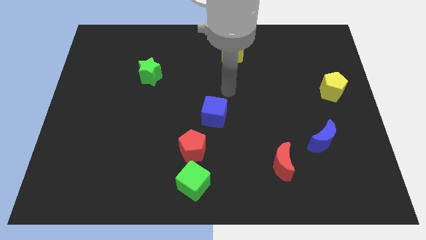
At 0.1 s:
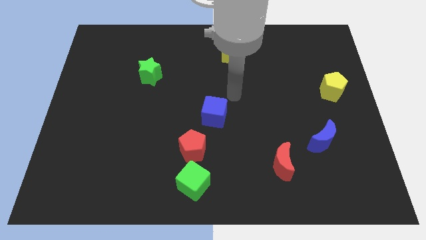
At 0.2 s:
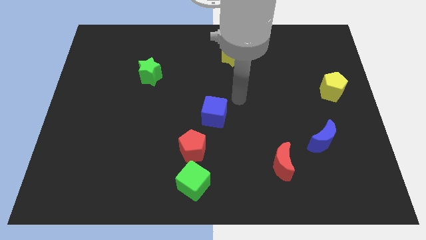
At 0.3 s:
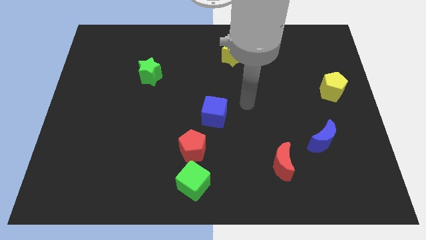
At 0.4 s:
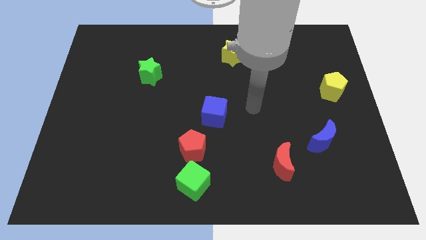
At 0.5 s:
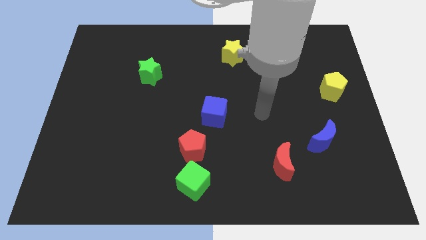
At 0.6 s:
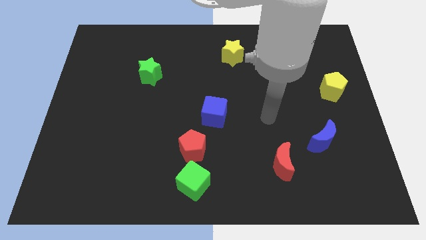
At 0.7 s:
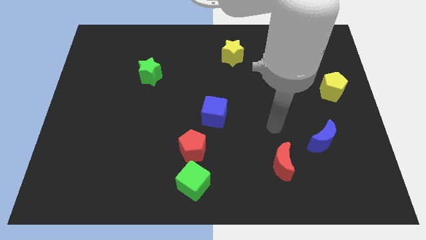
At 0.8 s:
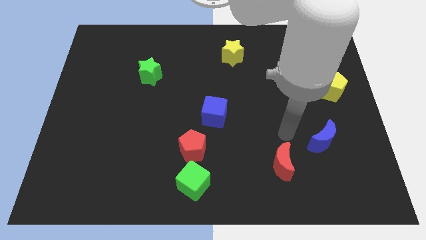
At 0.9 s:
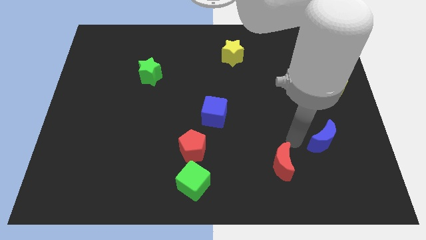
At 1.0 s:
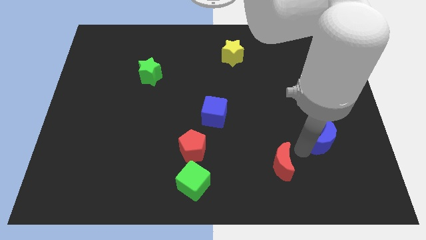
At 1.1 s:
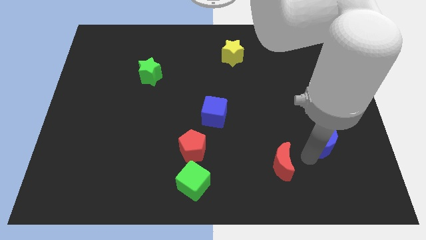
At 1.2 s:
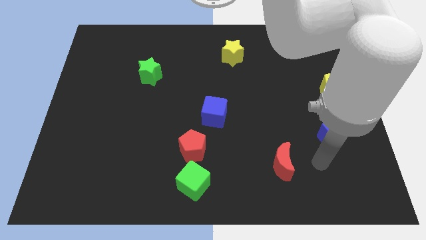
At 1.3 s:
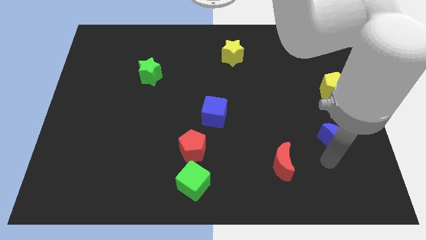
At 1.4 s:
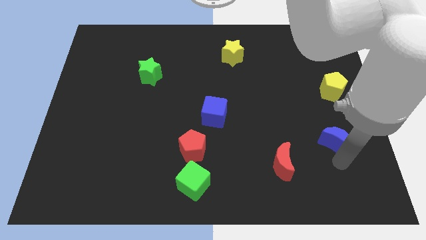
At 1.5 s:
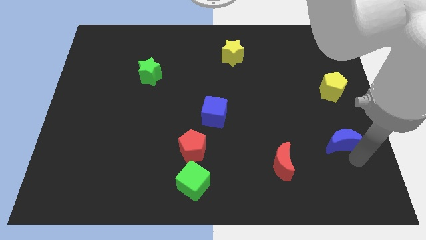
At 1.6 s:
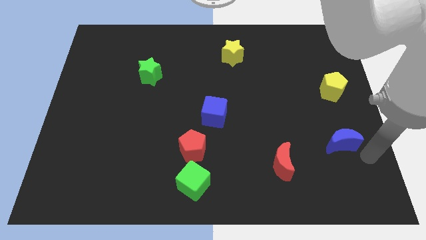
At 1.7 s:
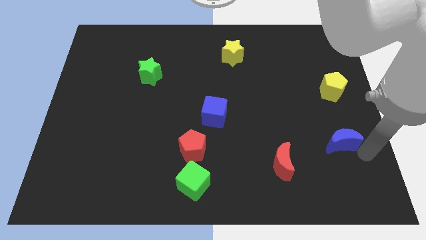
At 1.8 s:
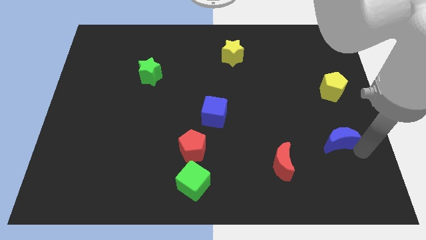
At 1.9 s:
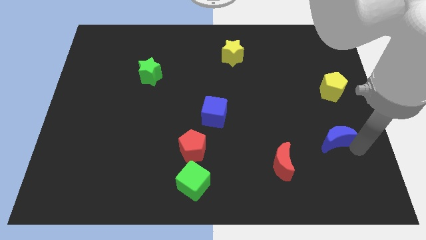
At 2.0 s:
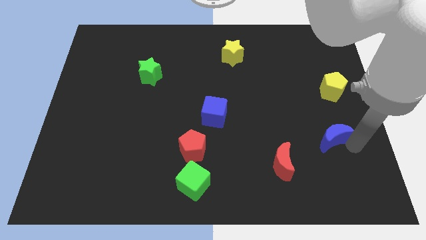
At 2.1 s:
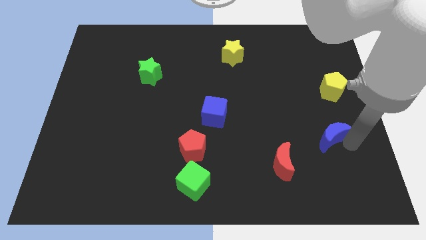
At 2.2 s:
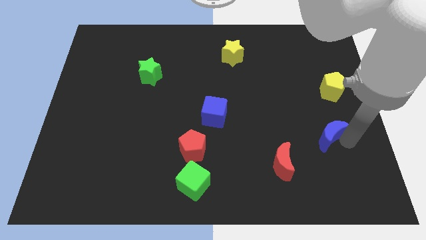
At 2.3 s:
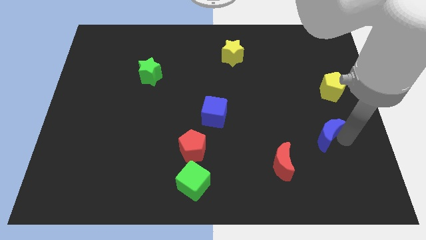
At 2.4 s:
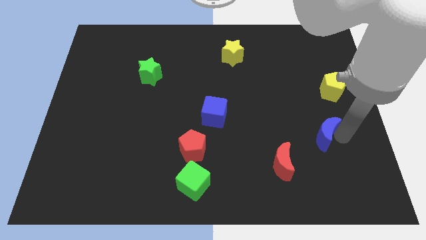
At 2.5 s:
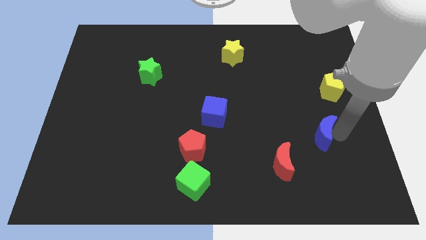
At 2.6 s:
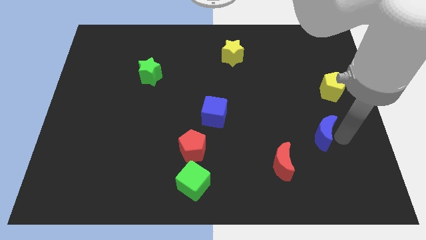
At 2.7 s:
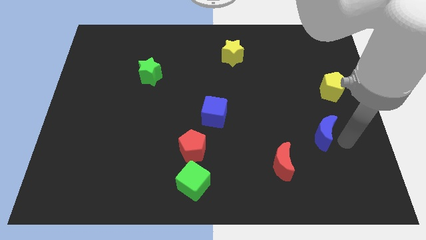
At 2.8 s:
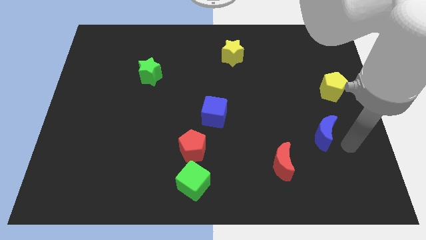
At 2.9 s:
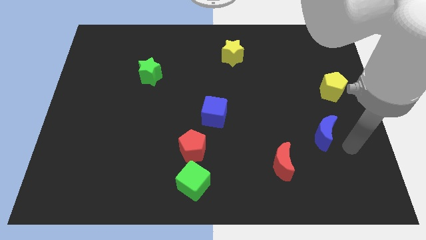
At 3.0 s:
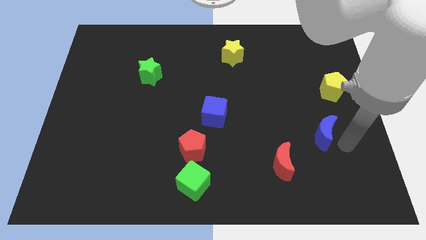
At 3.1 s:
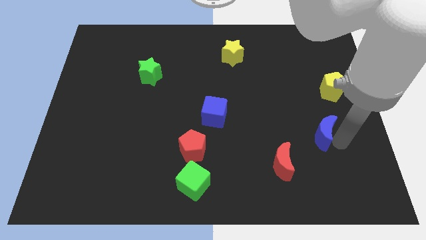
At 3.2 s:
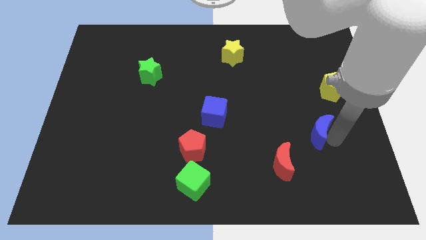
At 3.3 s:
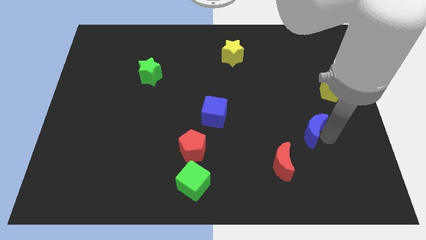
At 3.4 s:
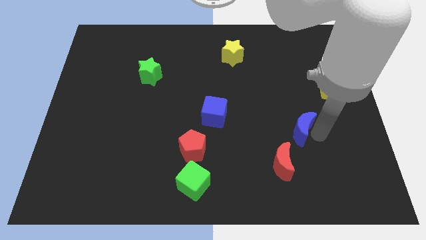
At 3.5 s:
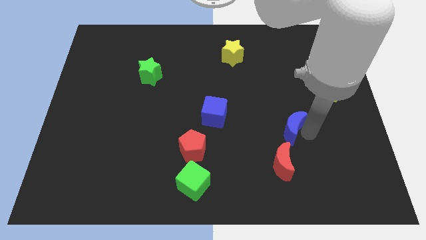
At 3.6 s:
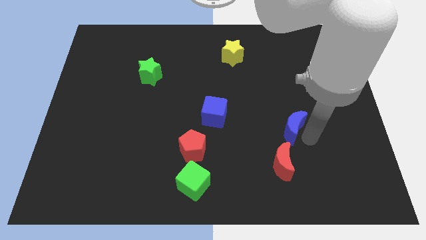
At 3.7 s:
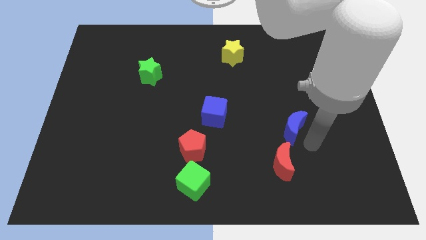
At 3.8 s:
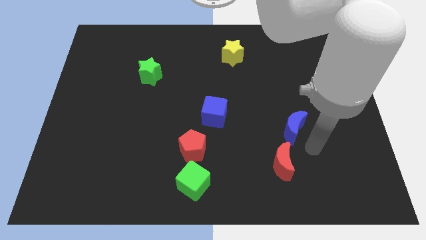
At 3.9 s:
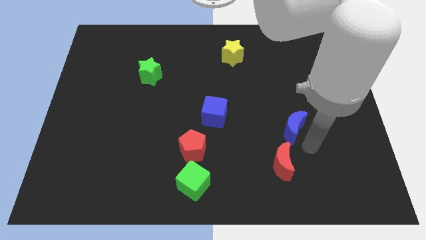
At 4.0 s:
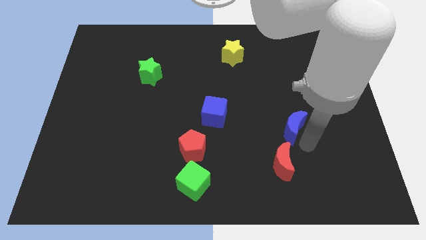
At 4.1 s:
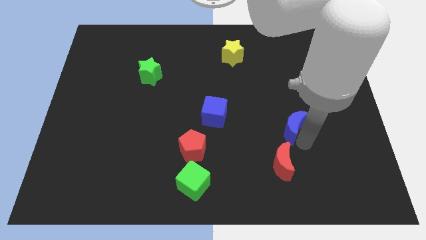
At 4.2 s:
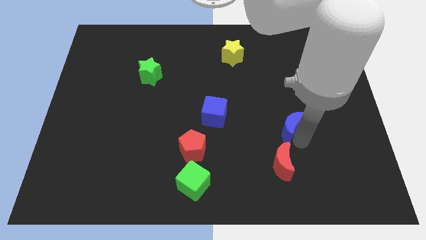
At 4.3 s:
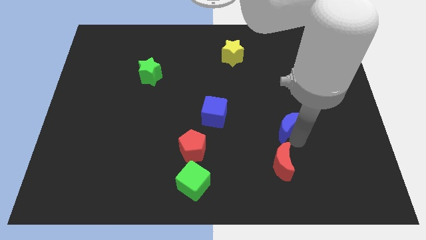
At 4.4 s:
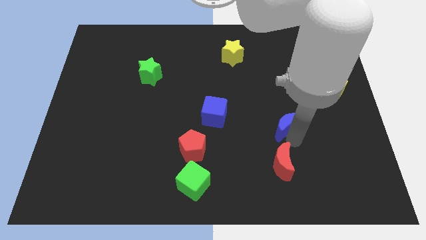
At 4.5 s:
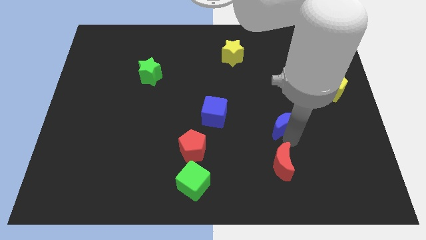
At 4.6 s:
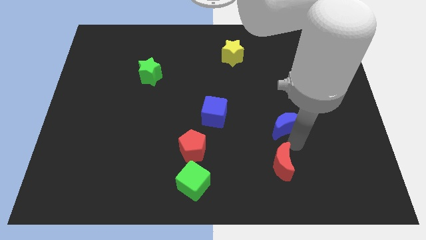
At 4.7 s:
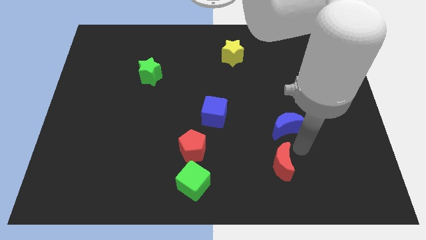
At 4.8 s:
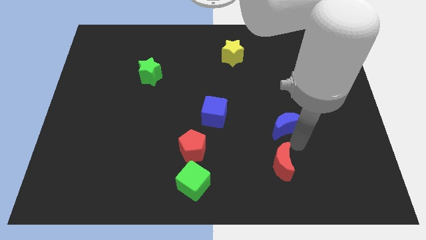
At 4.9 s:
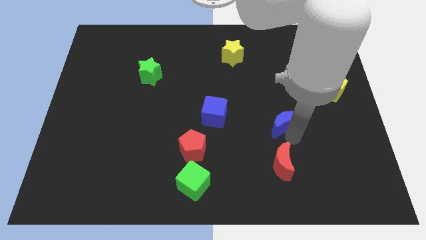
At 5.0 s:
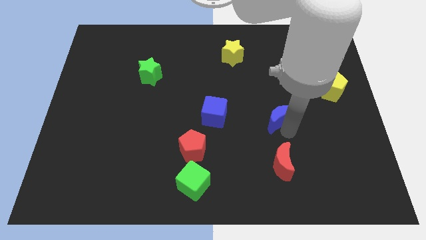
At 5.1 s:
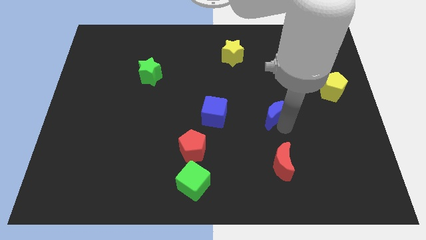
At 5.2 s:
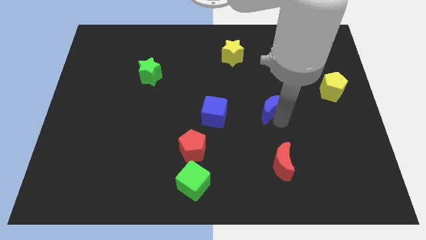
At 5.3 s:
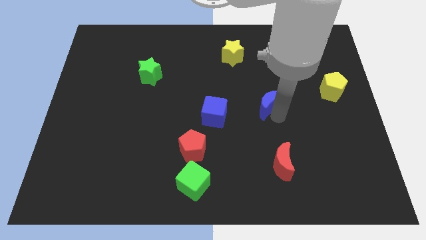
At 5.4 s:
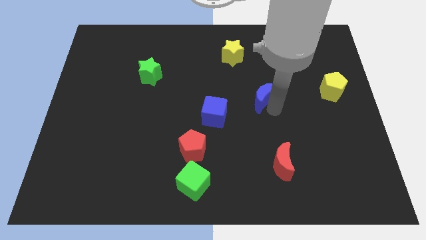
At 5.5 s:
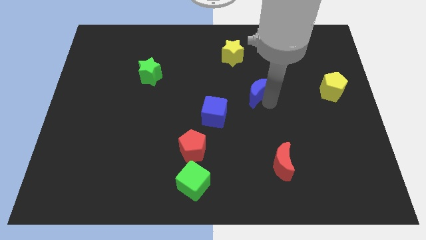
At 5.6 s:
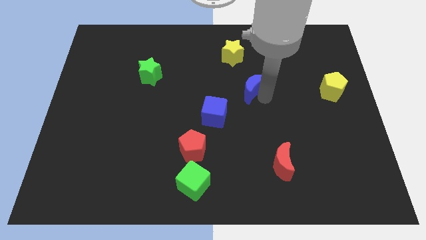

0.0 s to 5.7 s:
push the blue moon to the bottom side of the yellow star

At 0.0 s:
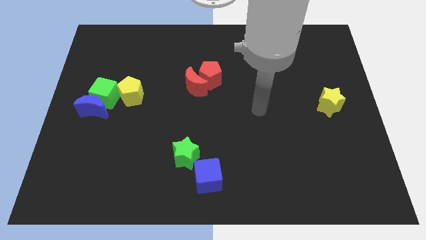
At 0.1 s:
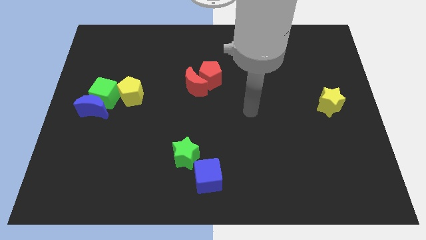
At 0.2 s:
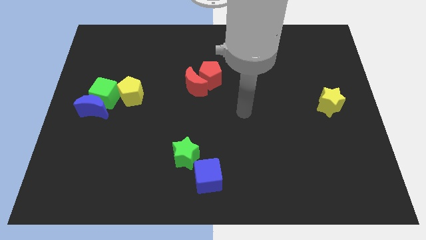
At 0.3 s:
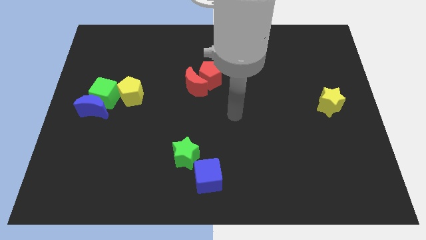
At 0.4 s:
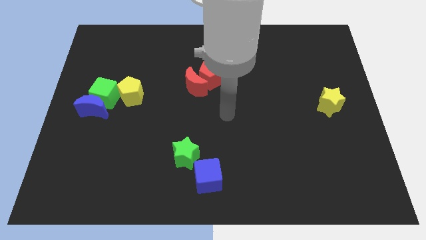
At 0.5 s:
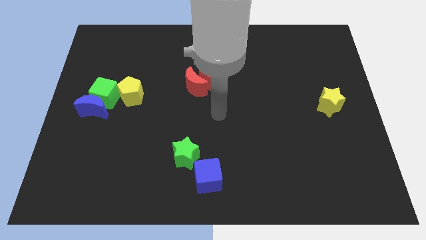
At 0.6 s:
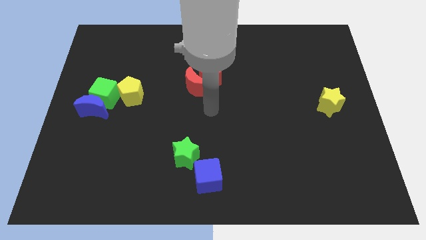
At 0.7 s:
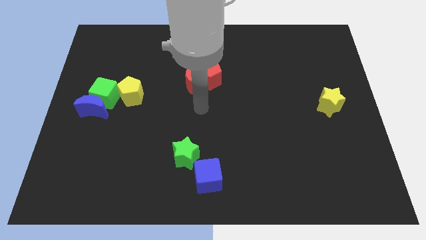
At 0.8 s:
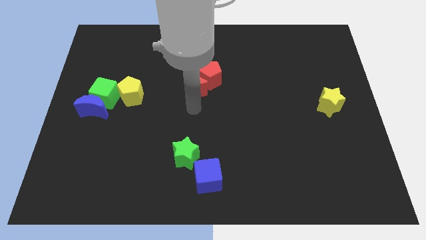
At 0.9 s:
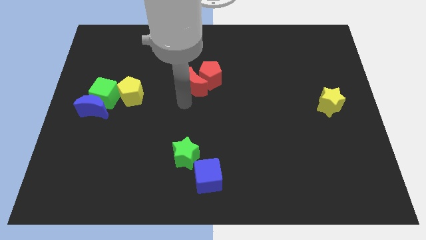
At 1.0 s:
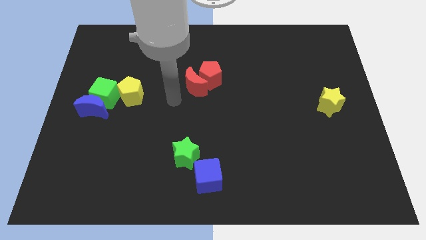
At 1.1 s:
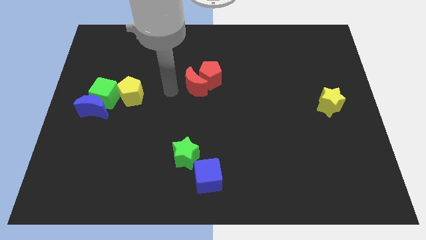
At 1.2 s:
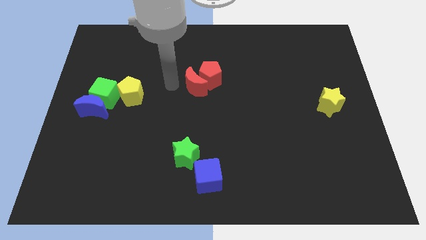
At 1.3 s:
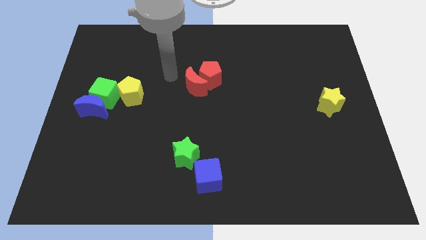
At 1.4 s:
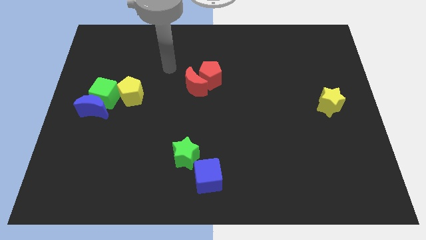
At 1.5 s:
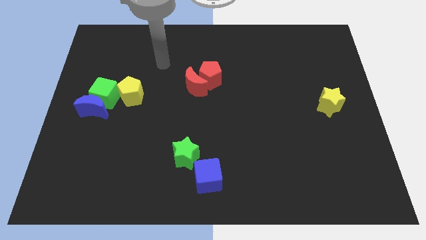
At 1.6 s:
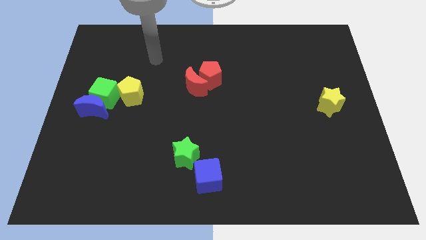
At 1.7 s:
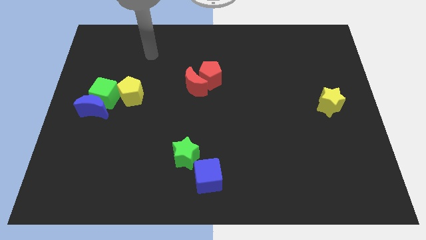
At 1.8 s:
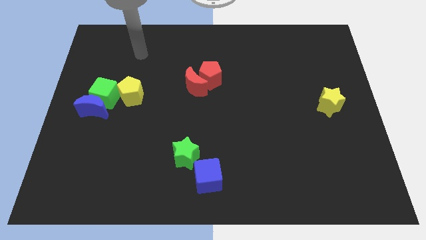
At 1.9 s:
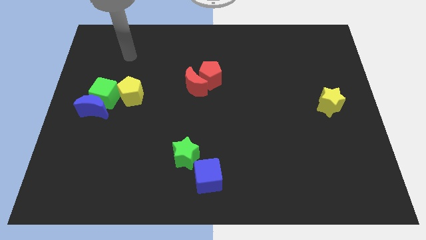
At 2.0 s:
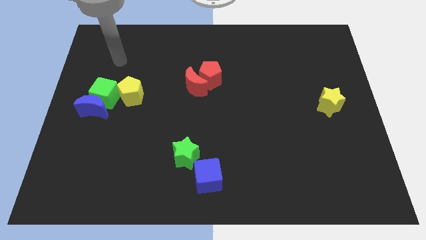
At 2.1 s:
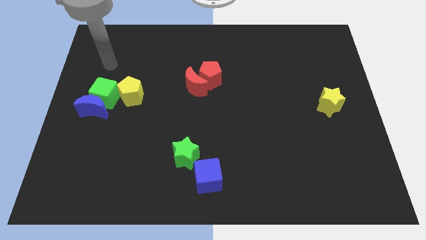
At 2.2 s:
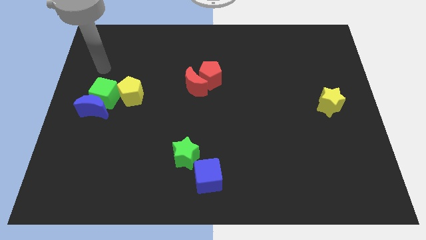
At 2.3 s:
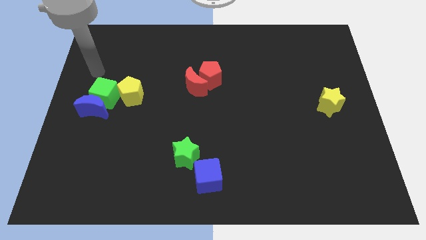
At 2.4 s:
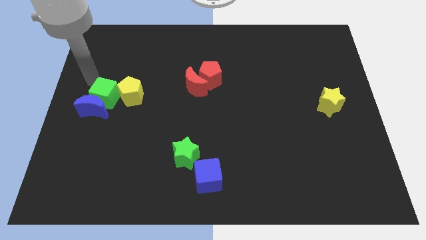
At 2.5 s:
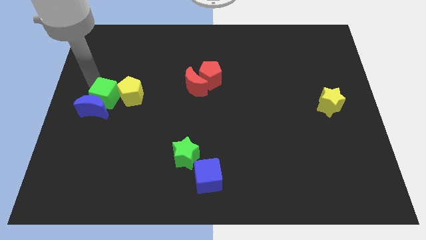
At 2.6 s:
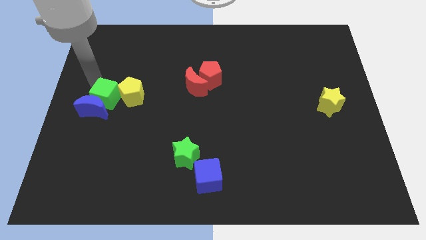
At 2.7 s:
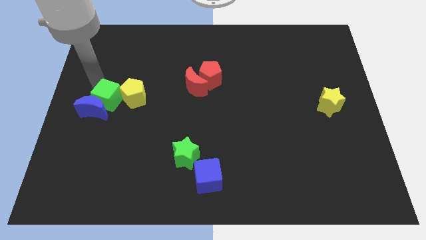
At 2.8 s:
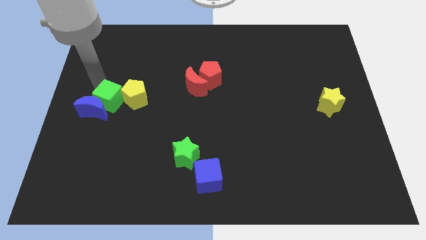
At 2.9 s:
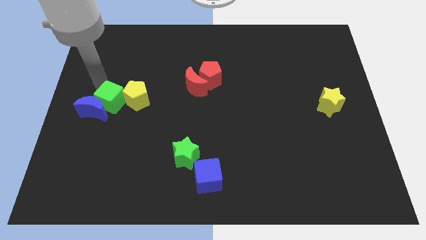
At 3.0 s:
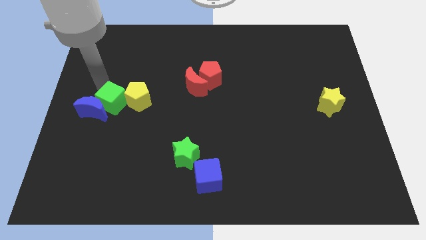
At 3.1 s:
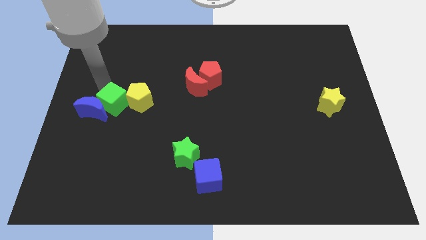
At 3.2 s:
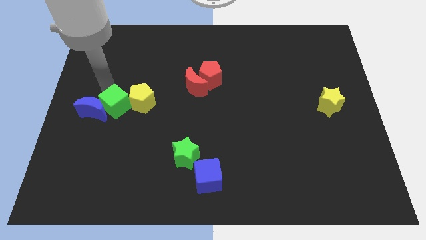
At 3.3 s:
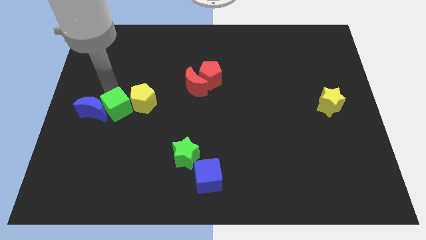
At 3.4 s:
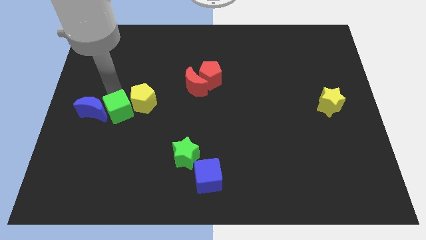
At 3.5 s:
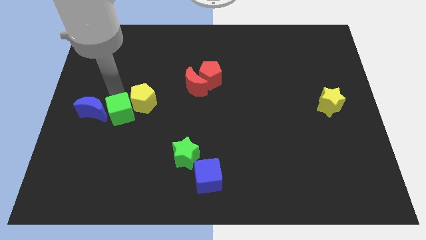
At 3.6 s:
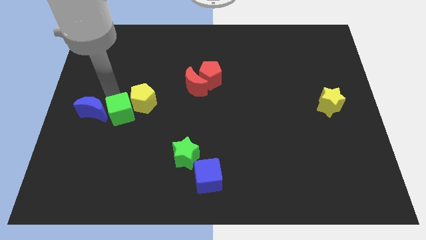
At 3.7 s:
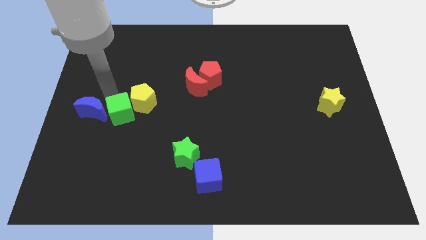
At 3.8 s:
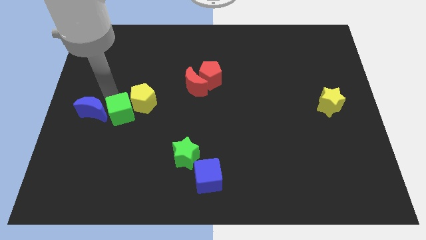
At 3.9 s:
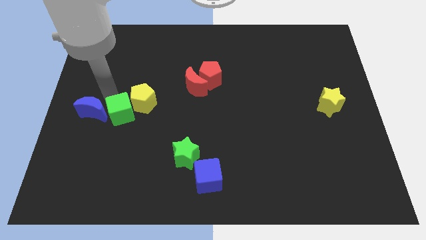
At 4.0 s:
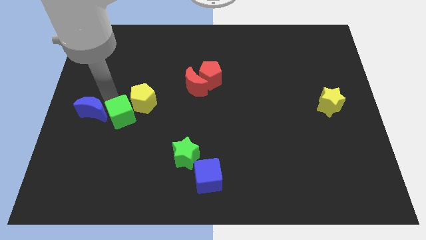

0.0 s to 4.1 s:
put the green cube to the bottom of the yellow pentagon
